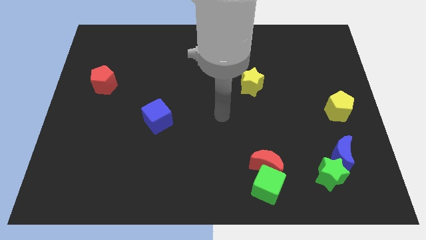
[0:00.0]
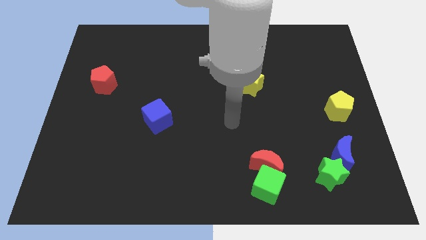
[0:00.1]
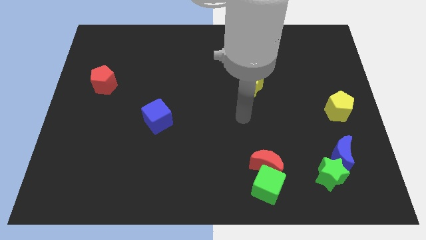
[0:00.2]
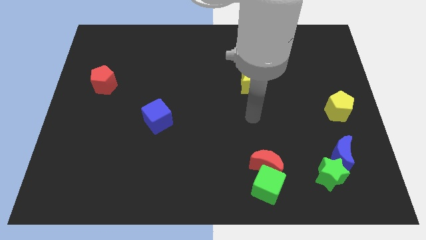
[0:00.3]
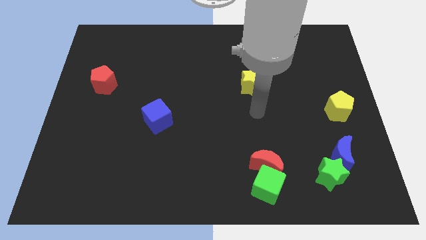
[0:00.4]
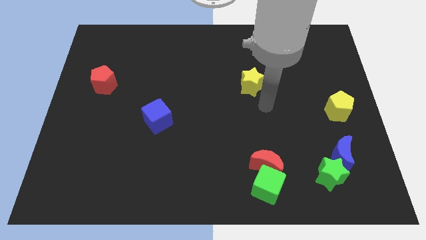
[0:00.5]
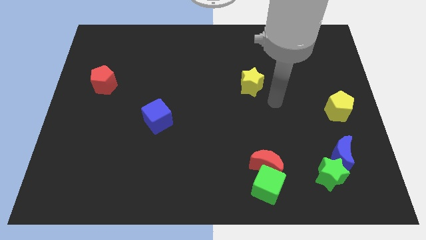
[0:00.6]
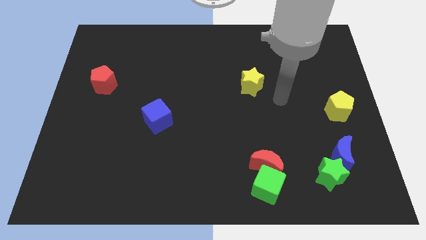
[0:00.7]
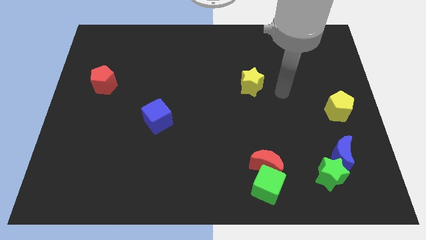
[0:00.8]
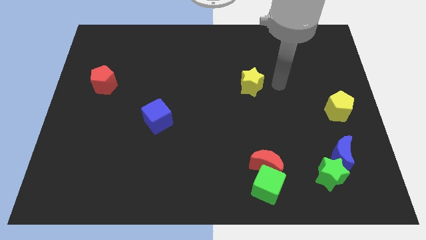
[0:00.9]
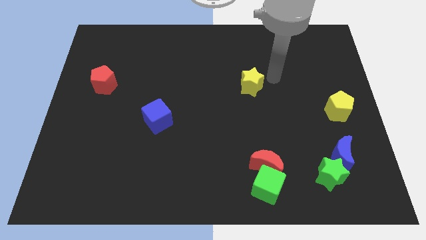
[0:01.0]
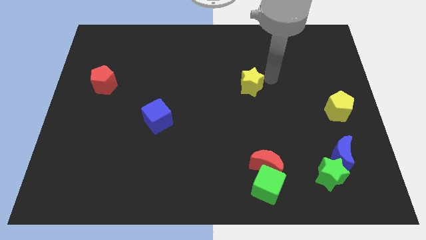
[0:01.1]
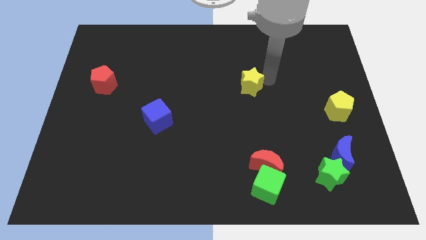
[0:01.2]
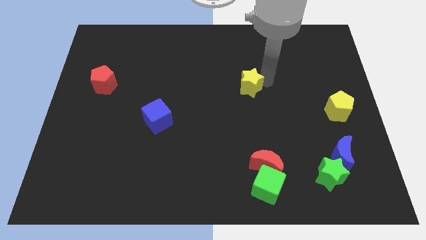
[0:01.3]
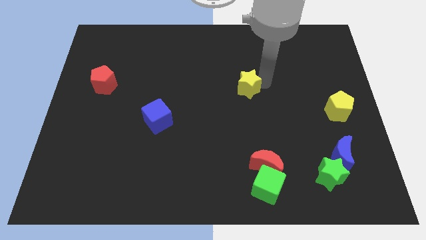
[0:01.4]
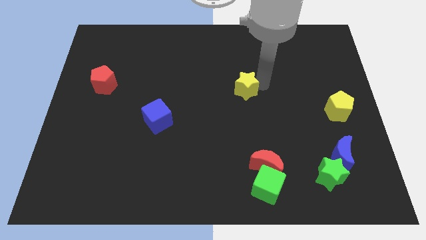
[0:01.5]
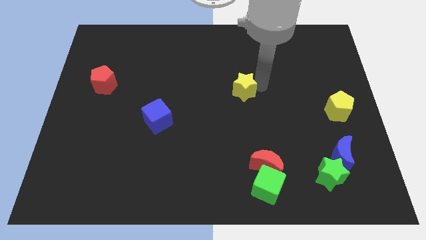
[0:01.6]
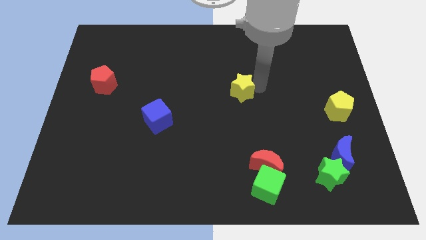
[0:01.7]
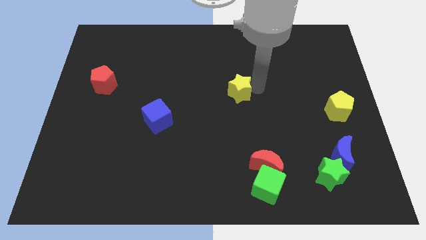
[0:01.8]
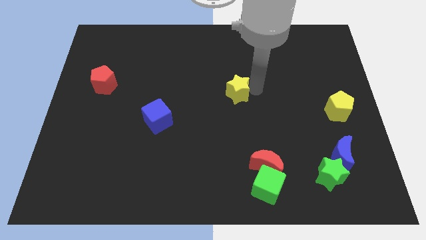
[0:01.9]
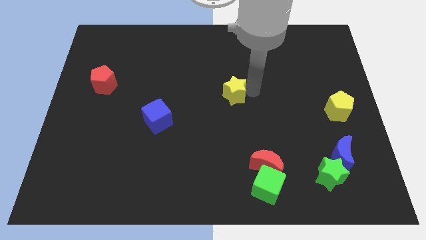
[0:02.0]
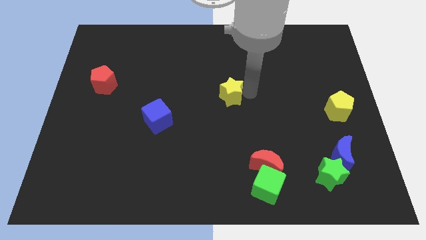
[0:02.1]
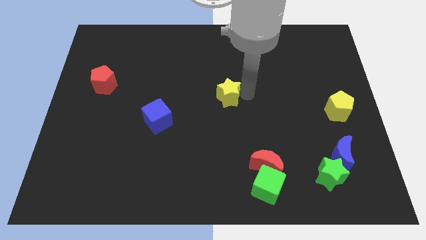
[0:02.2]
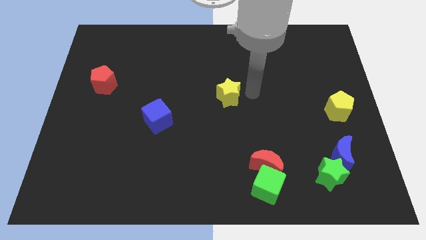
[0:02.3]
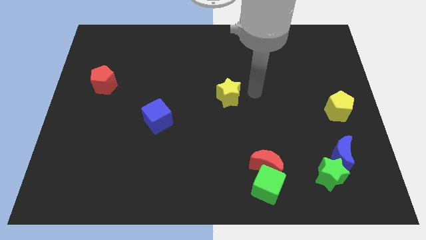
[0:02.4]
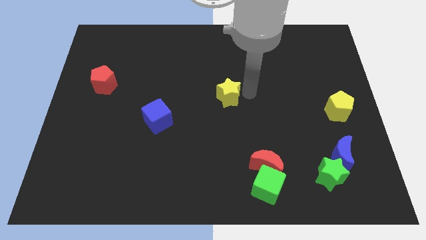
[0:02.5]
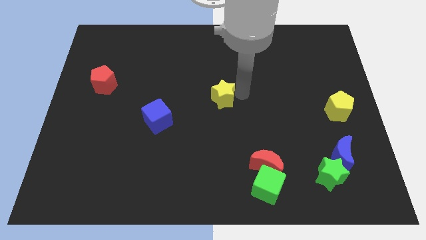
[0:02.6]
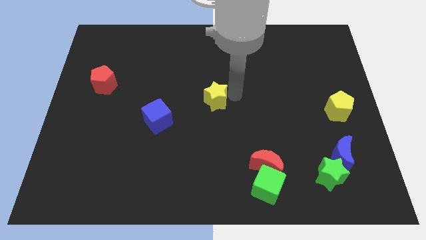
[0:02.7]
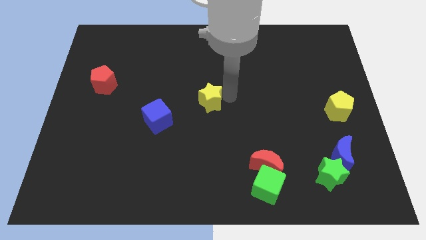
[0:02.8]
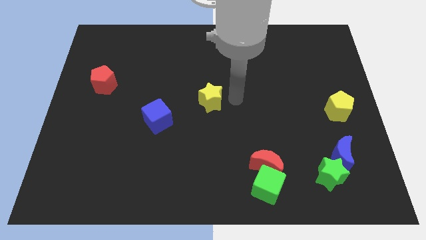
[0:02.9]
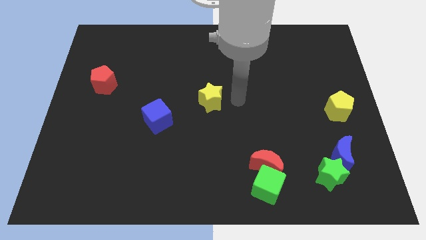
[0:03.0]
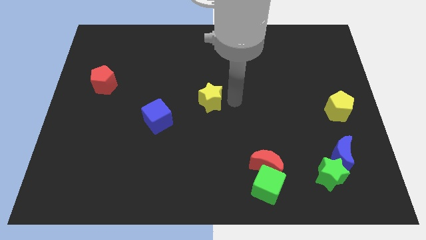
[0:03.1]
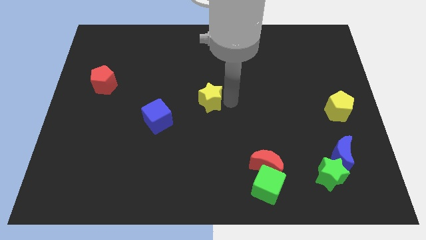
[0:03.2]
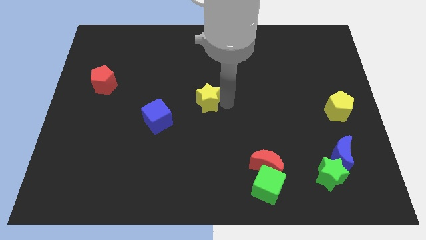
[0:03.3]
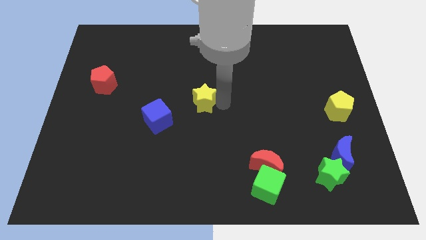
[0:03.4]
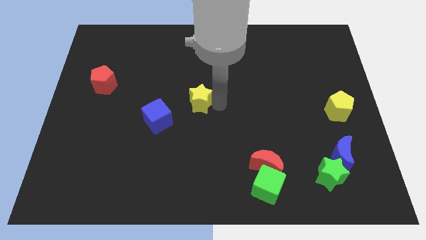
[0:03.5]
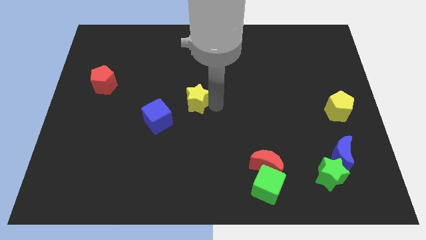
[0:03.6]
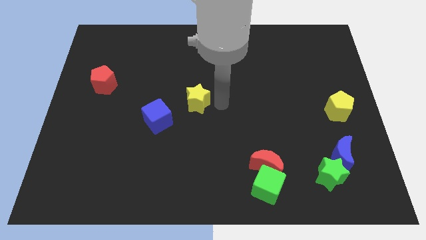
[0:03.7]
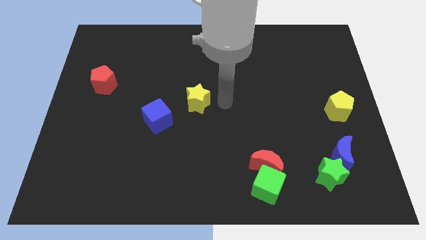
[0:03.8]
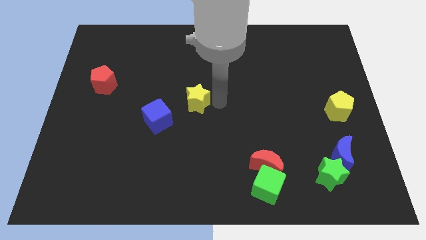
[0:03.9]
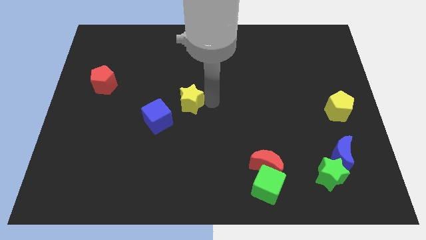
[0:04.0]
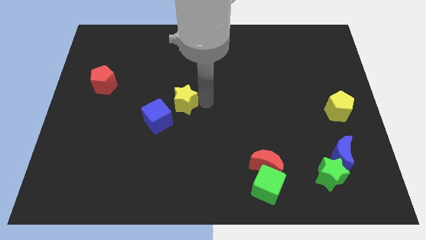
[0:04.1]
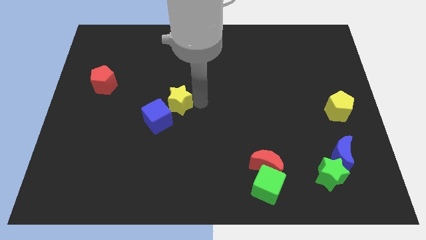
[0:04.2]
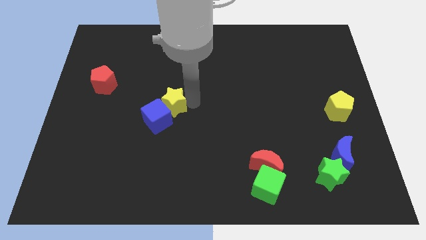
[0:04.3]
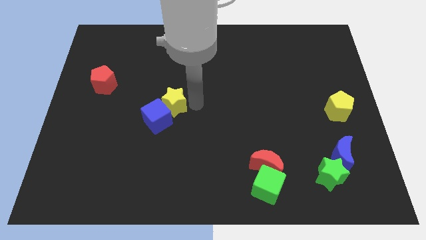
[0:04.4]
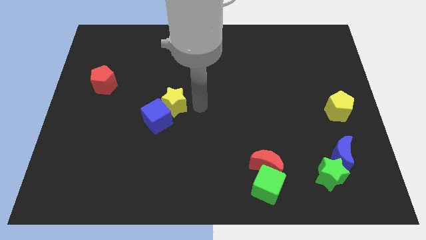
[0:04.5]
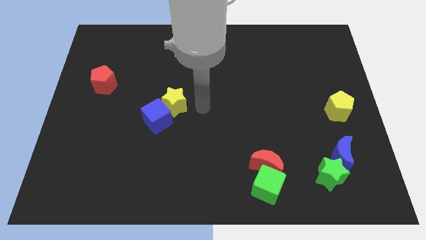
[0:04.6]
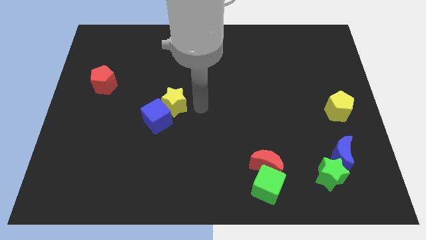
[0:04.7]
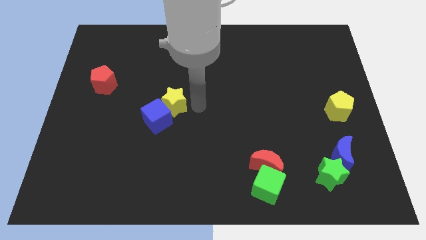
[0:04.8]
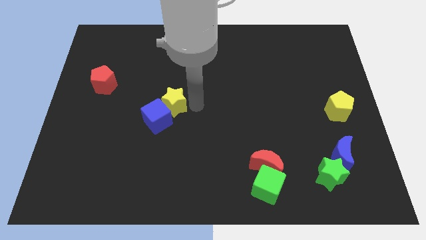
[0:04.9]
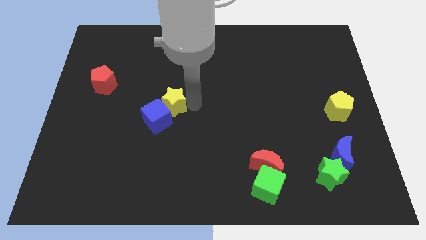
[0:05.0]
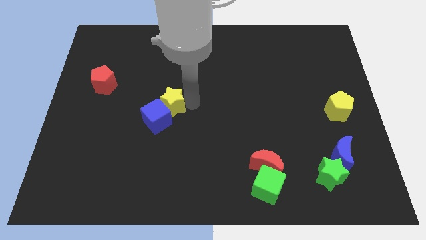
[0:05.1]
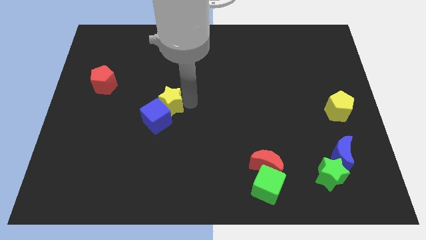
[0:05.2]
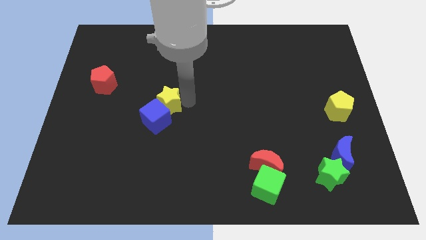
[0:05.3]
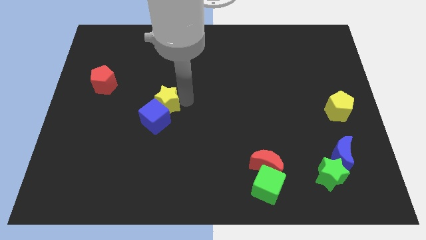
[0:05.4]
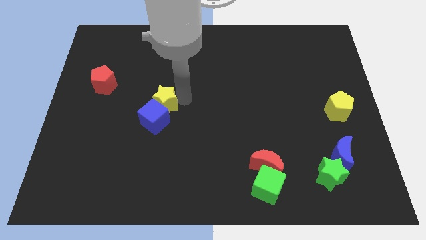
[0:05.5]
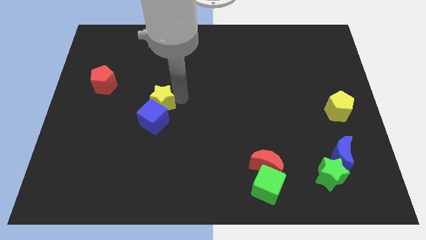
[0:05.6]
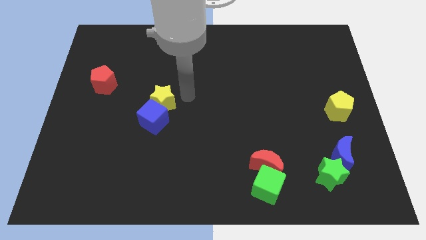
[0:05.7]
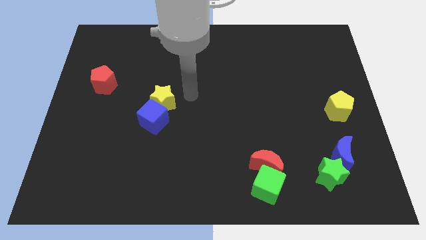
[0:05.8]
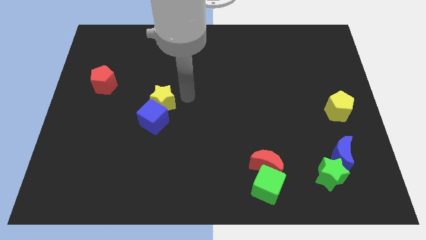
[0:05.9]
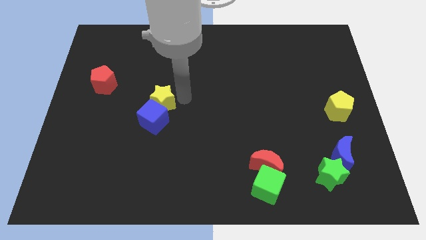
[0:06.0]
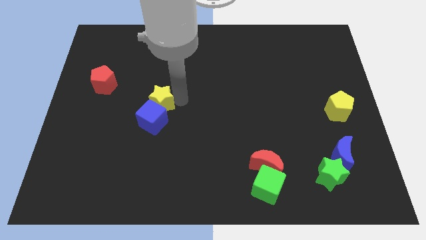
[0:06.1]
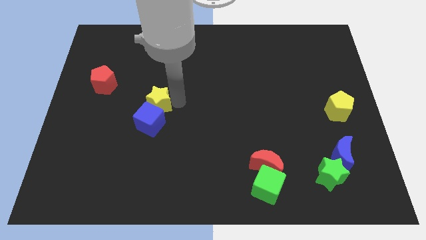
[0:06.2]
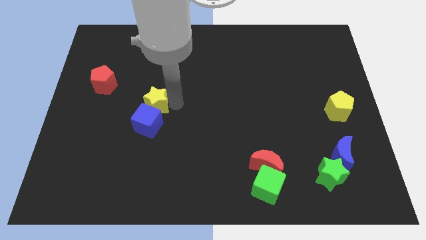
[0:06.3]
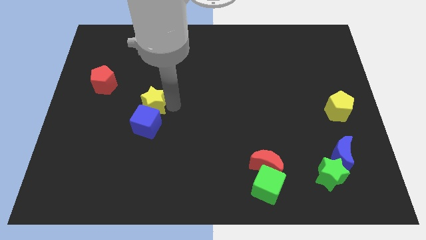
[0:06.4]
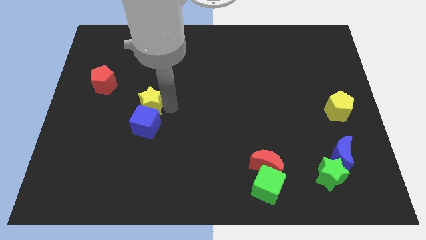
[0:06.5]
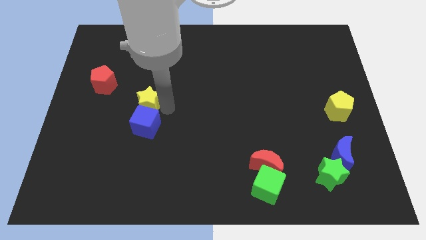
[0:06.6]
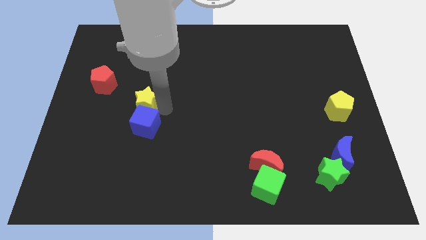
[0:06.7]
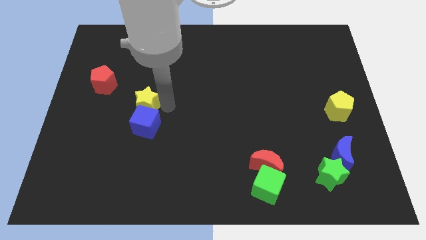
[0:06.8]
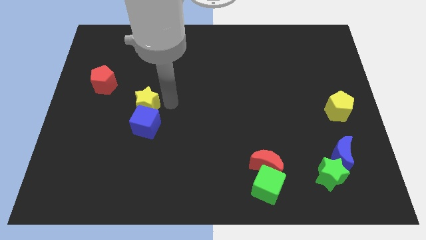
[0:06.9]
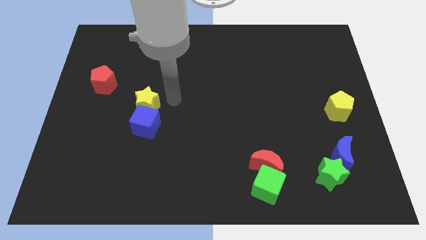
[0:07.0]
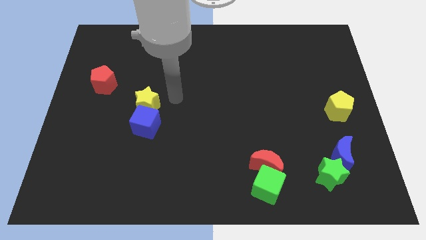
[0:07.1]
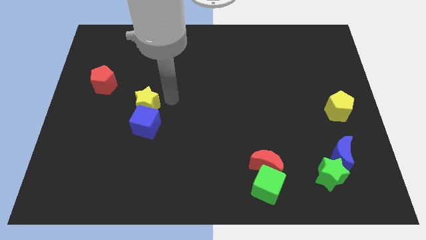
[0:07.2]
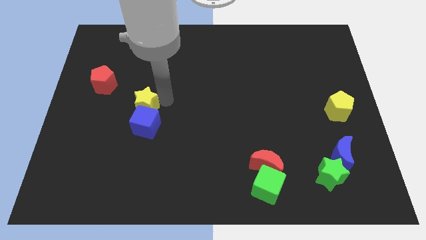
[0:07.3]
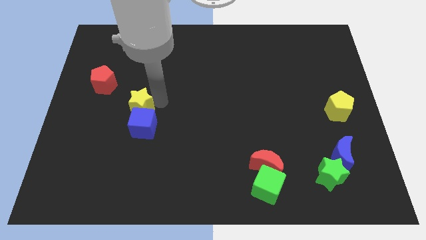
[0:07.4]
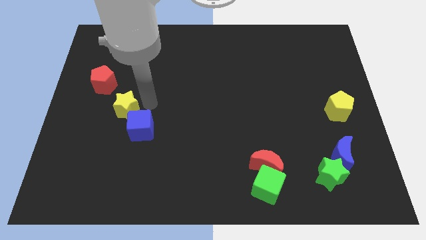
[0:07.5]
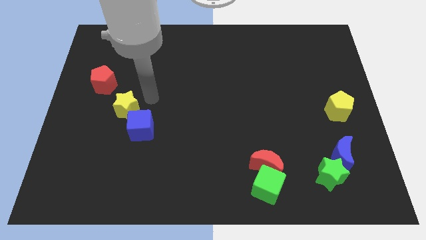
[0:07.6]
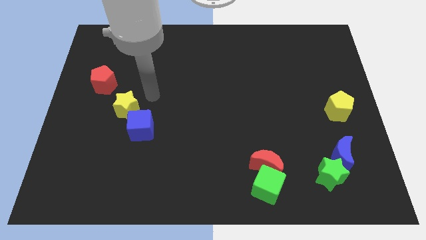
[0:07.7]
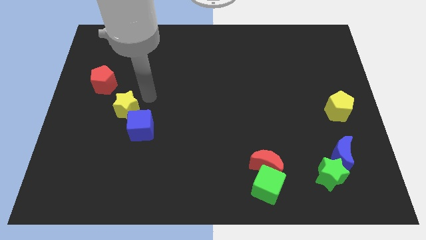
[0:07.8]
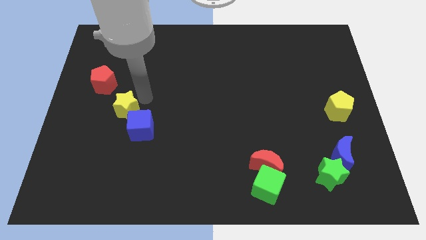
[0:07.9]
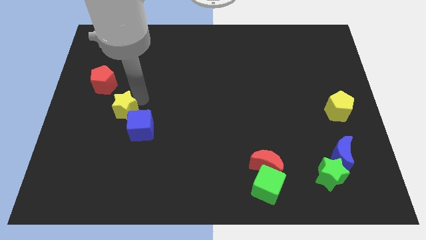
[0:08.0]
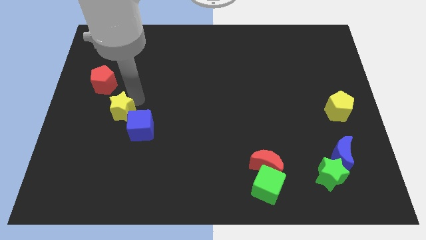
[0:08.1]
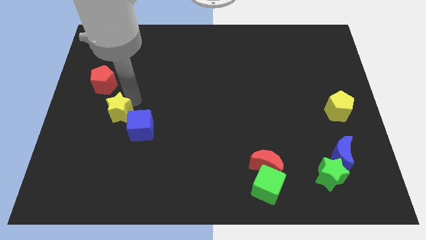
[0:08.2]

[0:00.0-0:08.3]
put the yellow star left of the blue cube
